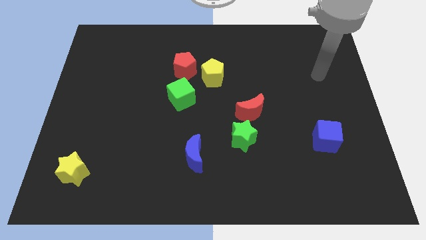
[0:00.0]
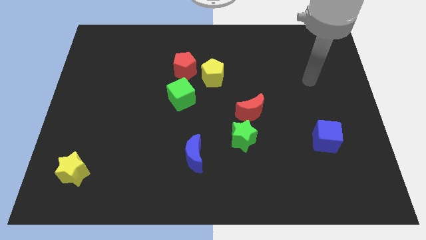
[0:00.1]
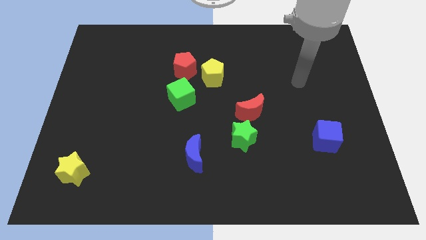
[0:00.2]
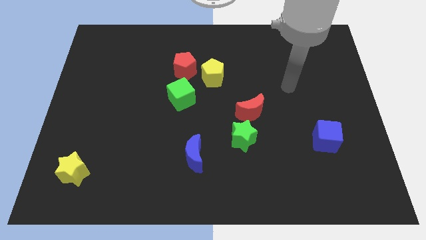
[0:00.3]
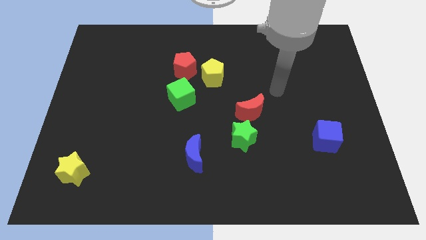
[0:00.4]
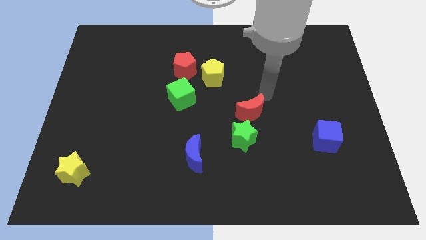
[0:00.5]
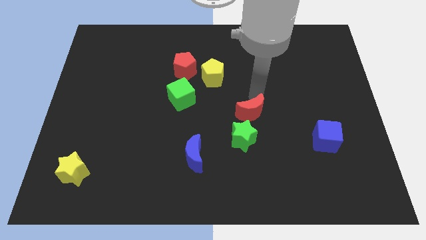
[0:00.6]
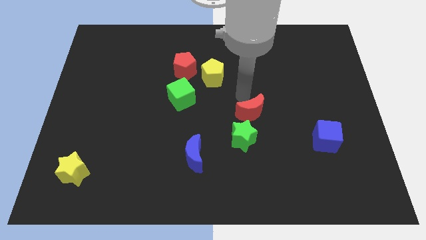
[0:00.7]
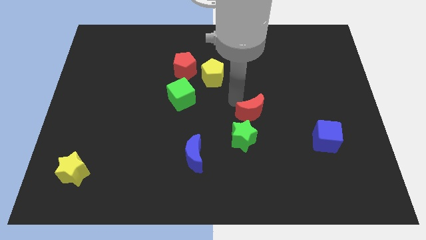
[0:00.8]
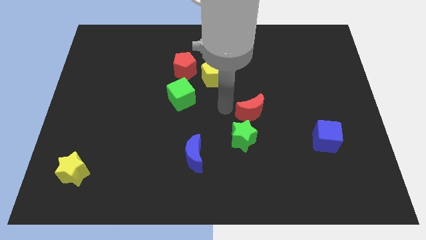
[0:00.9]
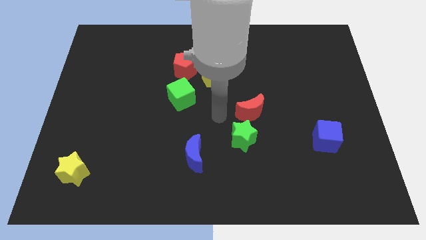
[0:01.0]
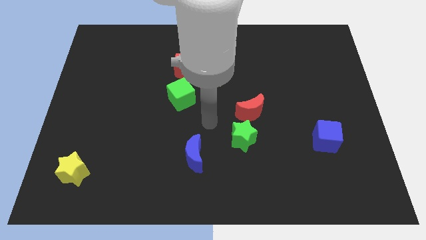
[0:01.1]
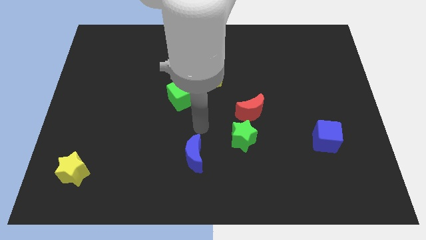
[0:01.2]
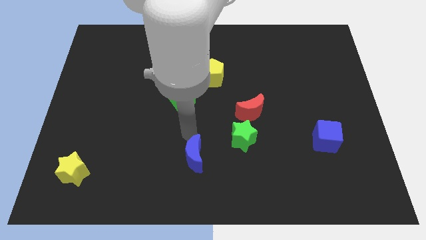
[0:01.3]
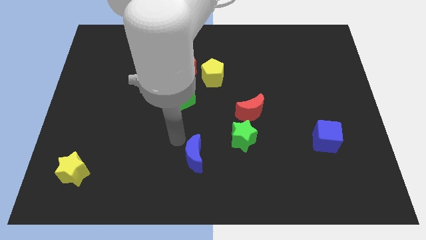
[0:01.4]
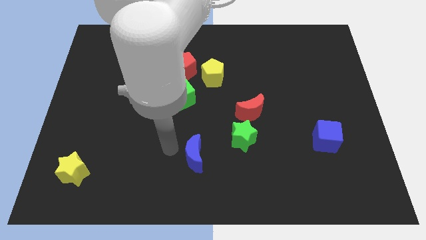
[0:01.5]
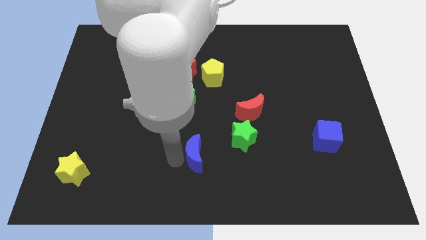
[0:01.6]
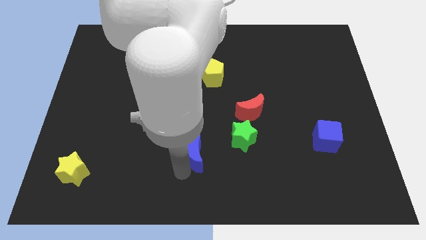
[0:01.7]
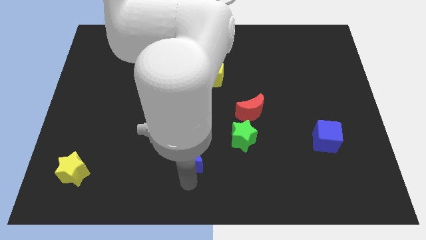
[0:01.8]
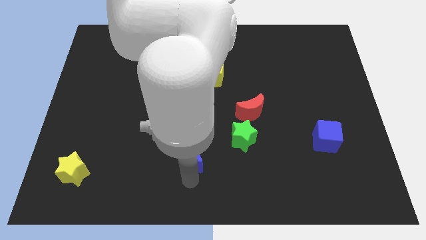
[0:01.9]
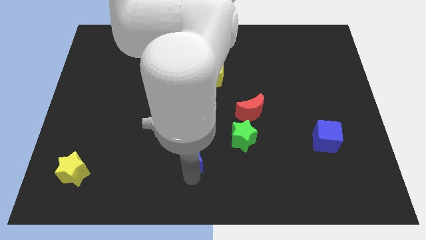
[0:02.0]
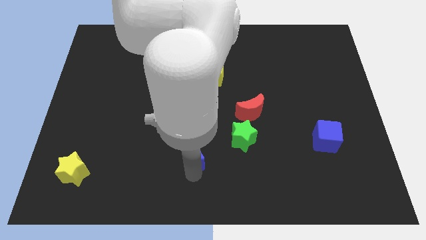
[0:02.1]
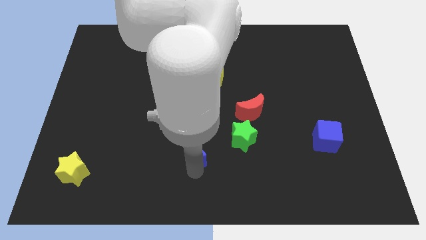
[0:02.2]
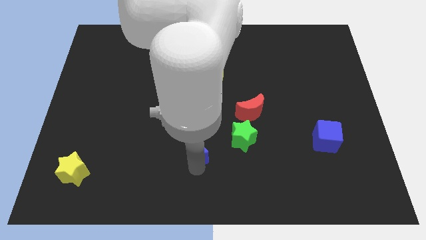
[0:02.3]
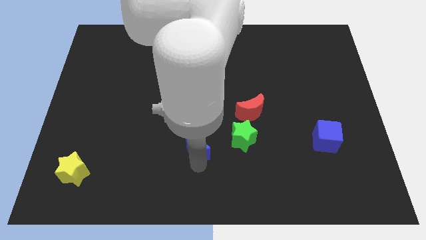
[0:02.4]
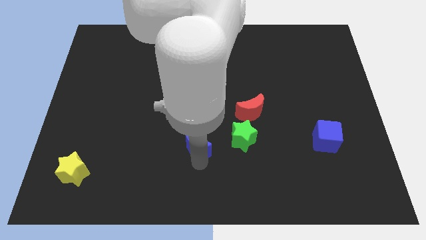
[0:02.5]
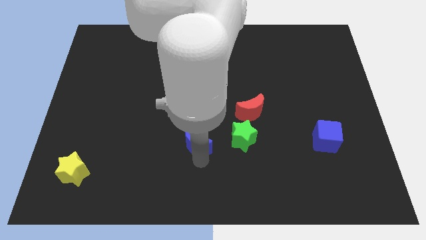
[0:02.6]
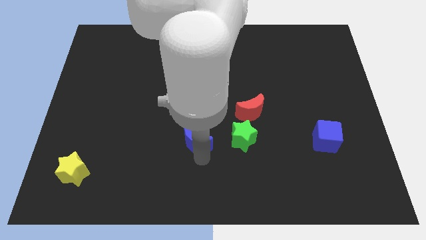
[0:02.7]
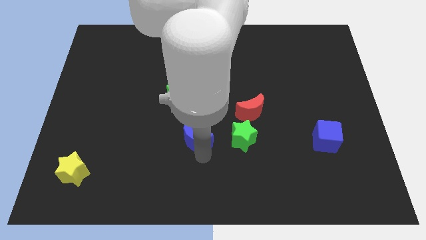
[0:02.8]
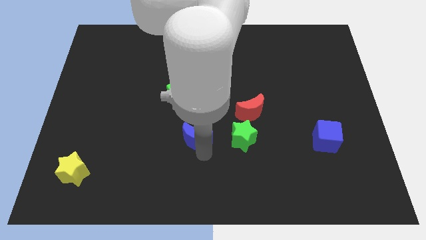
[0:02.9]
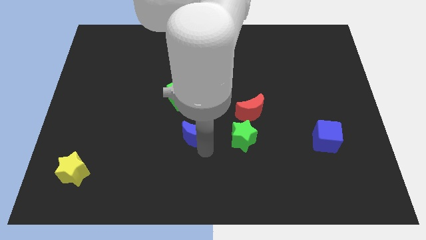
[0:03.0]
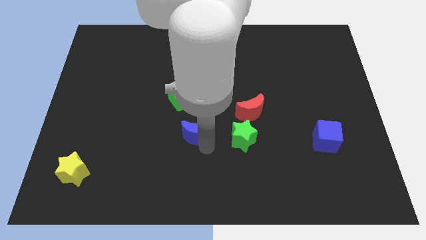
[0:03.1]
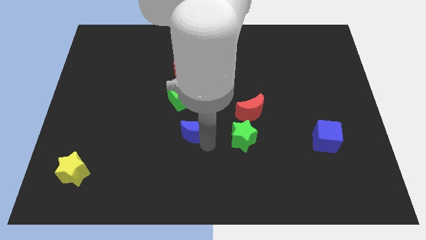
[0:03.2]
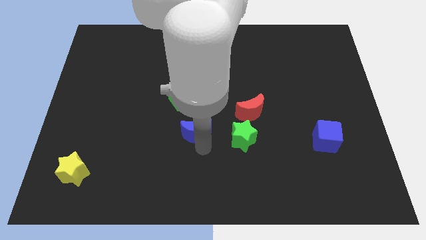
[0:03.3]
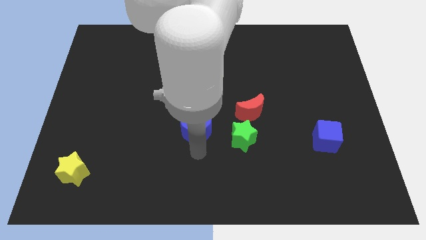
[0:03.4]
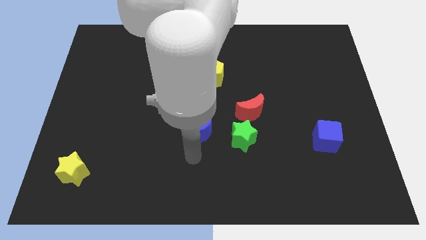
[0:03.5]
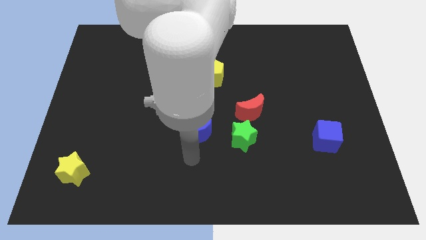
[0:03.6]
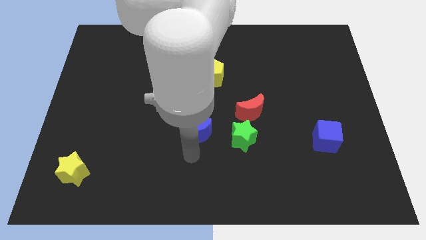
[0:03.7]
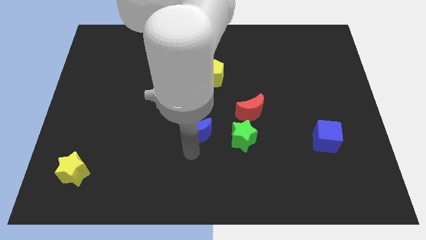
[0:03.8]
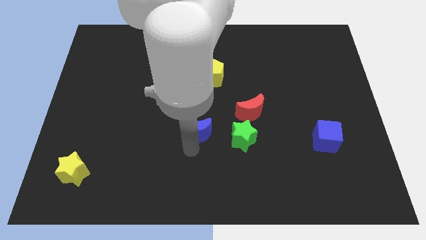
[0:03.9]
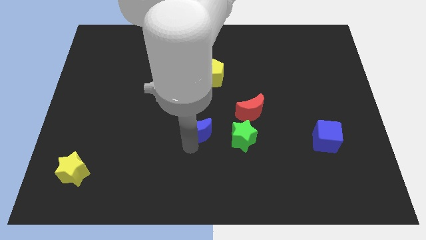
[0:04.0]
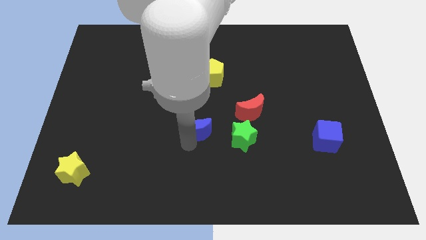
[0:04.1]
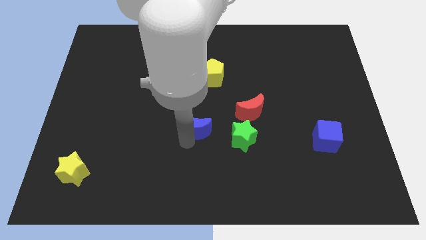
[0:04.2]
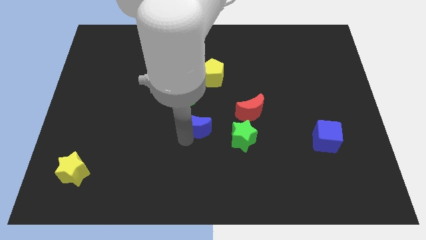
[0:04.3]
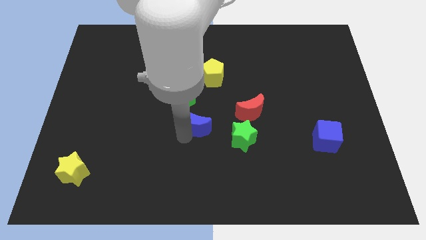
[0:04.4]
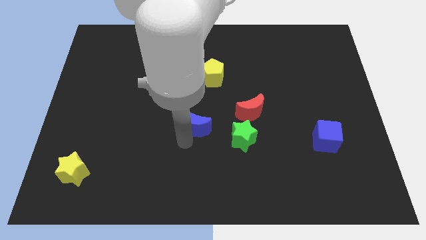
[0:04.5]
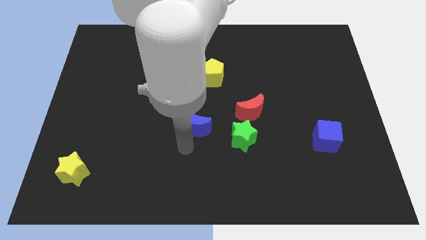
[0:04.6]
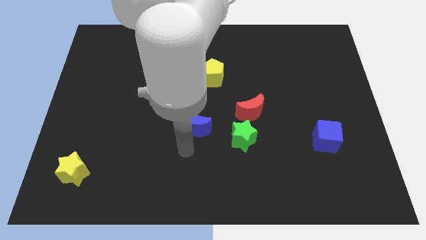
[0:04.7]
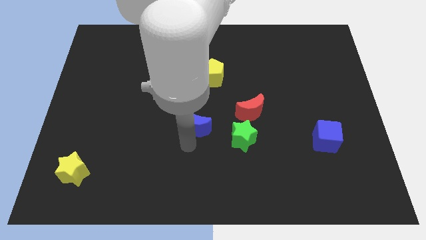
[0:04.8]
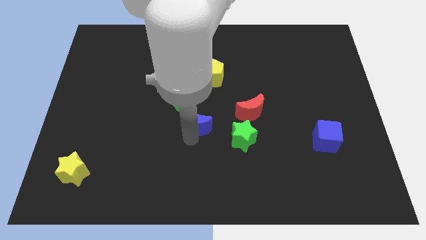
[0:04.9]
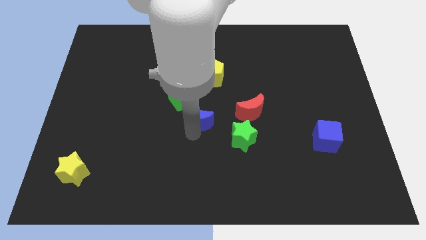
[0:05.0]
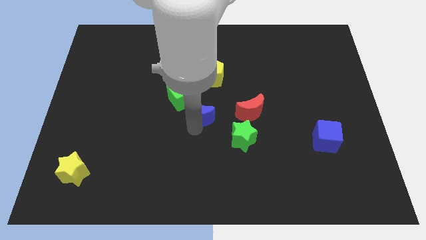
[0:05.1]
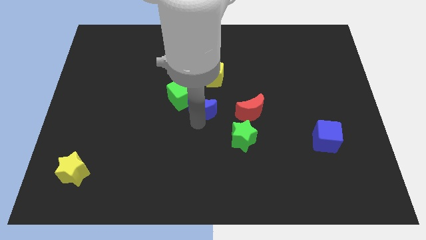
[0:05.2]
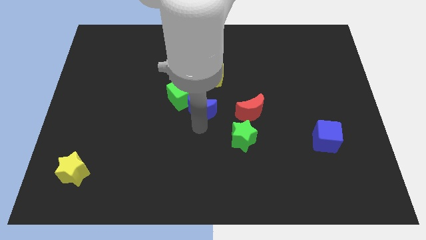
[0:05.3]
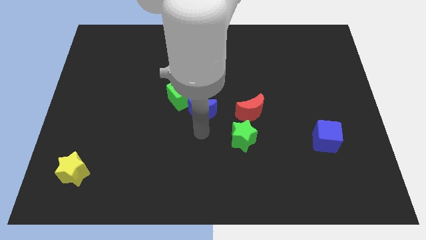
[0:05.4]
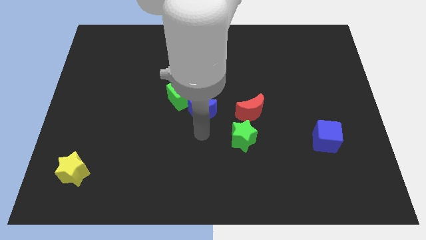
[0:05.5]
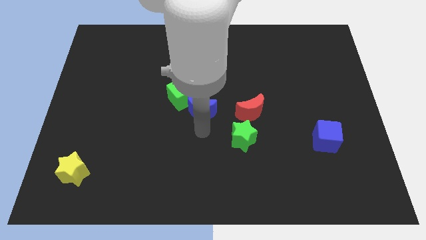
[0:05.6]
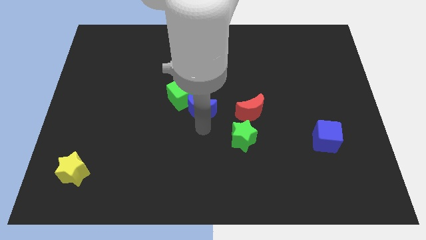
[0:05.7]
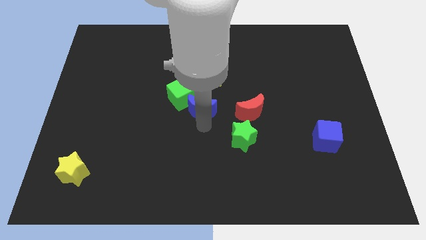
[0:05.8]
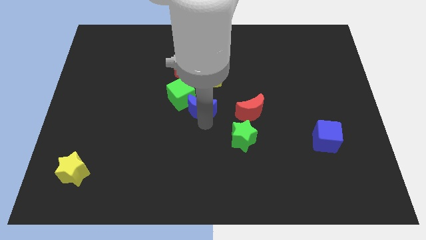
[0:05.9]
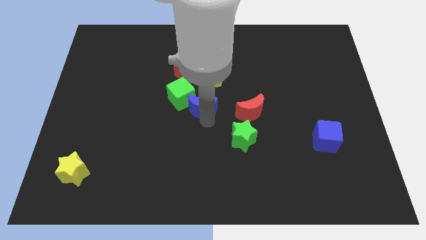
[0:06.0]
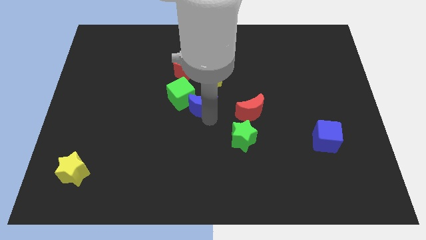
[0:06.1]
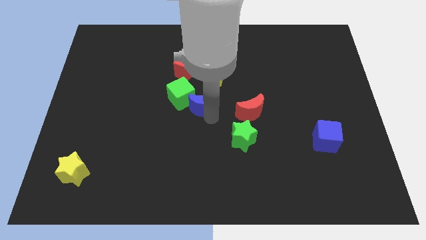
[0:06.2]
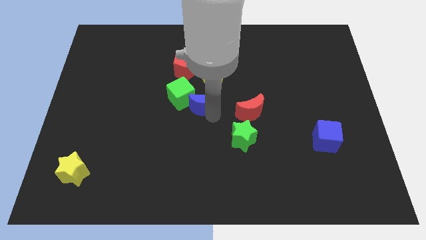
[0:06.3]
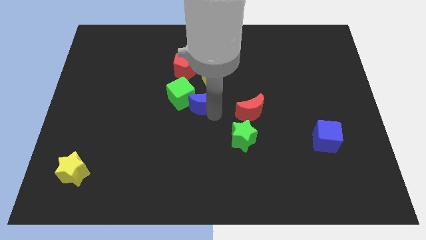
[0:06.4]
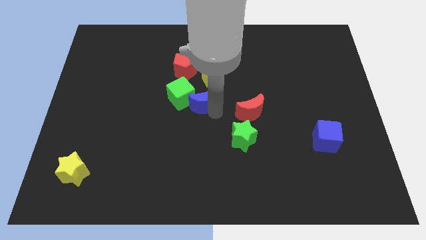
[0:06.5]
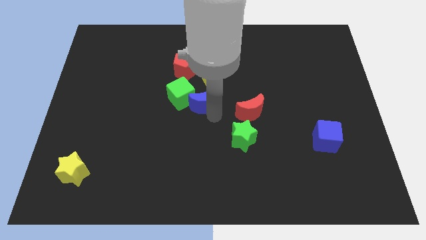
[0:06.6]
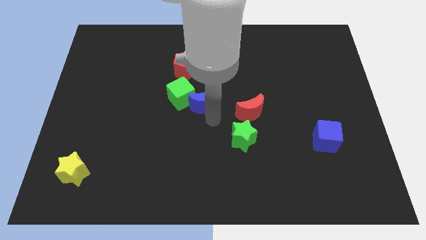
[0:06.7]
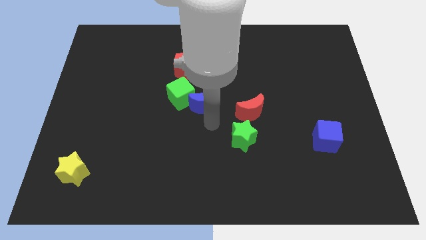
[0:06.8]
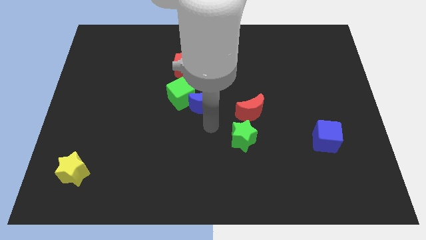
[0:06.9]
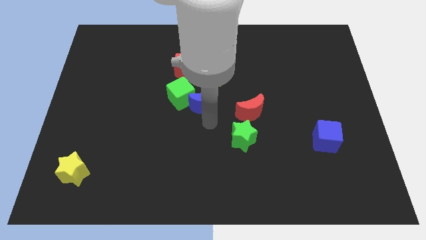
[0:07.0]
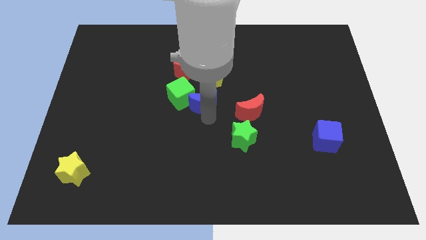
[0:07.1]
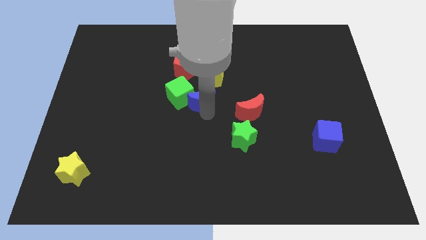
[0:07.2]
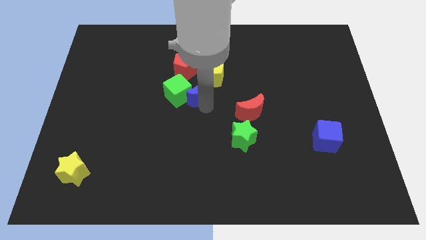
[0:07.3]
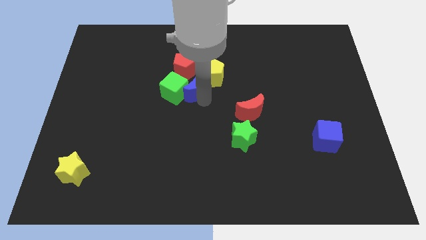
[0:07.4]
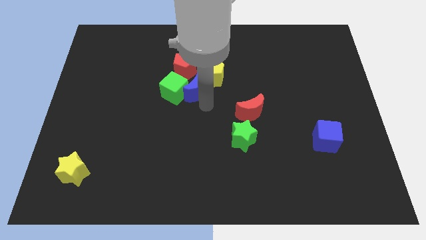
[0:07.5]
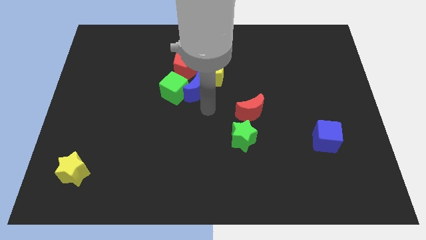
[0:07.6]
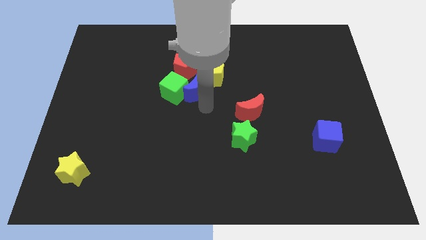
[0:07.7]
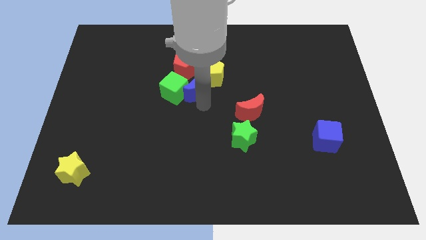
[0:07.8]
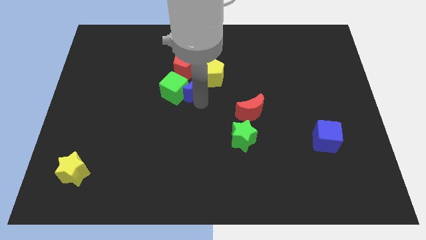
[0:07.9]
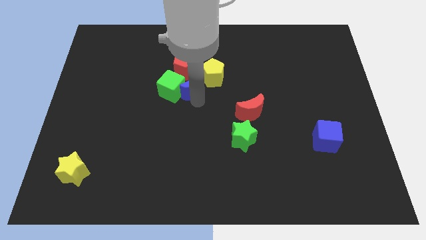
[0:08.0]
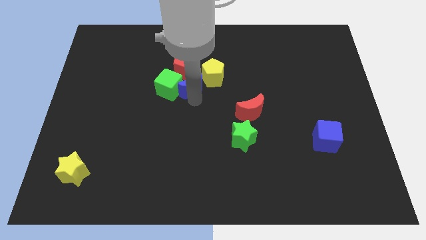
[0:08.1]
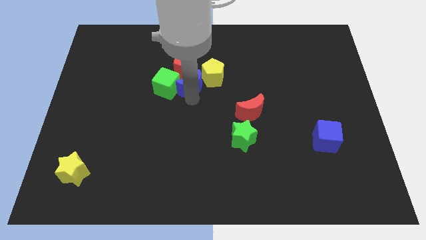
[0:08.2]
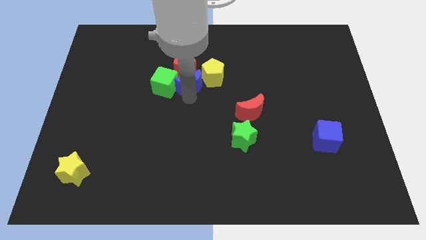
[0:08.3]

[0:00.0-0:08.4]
slide the blue moon towards the red pentagon
